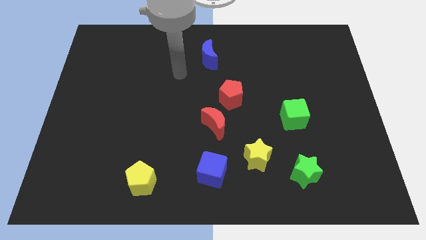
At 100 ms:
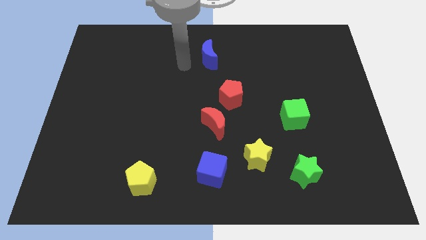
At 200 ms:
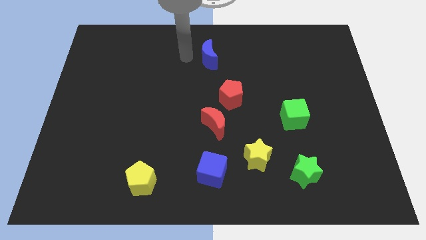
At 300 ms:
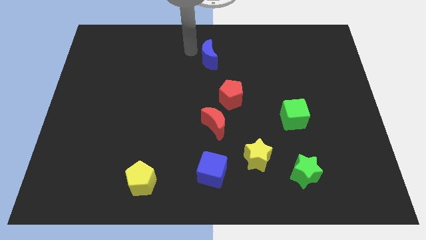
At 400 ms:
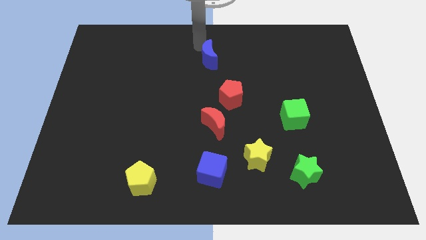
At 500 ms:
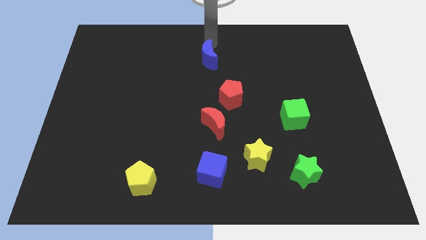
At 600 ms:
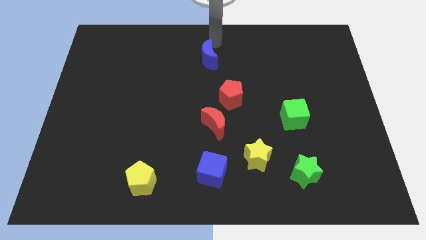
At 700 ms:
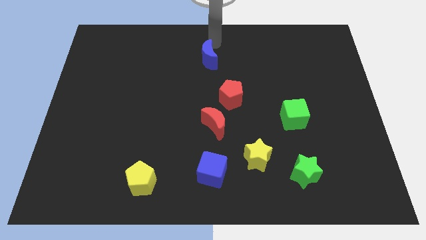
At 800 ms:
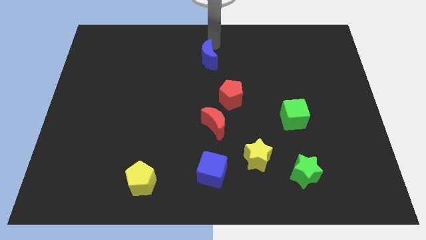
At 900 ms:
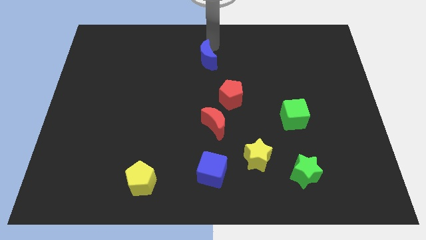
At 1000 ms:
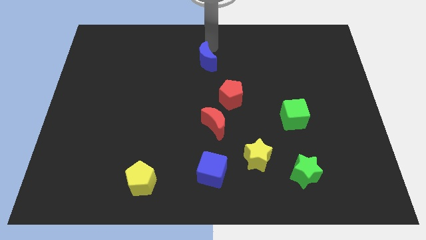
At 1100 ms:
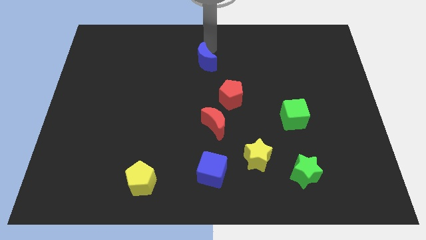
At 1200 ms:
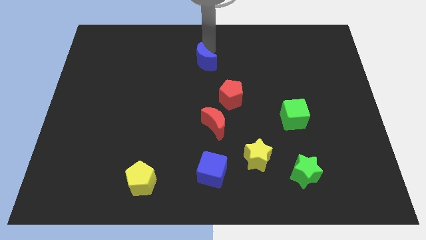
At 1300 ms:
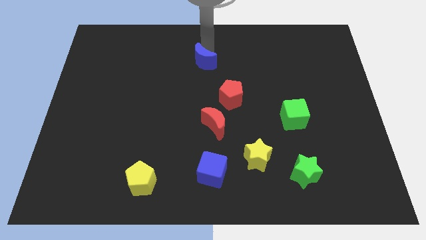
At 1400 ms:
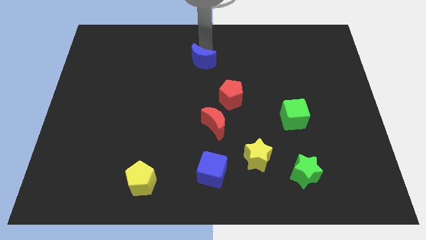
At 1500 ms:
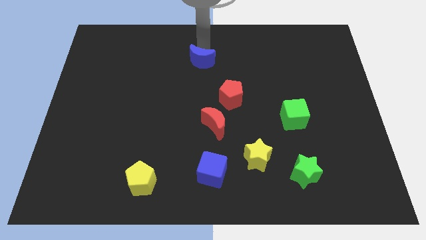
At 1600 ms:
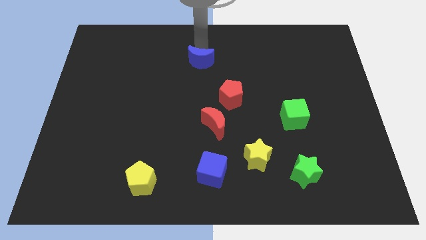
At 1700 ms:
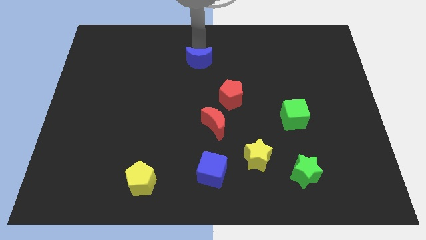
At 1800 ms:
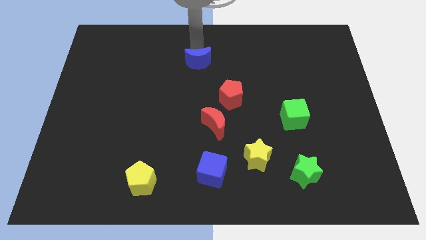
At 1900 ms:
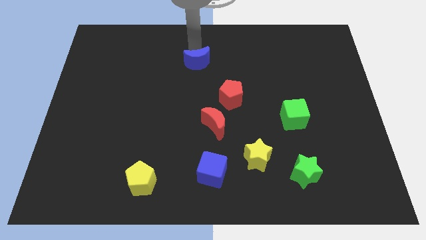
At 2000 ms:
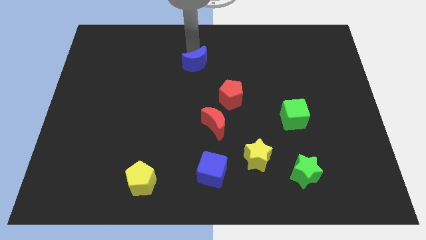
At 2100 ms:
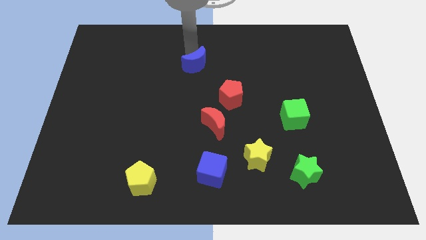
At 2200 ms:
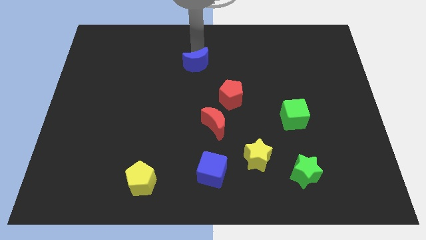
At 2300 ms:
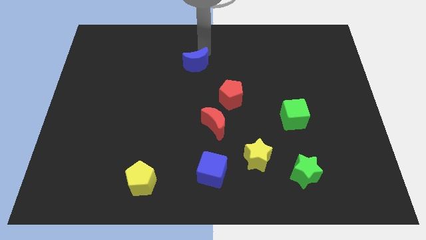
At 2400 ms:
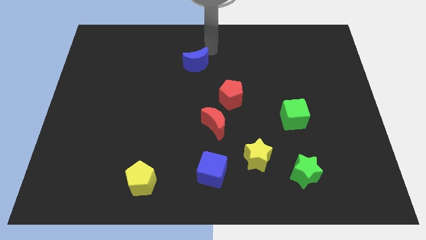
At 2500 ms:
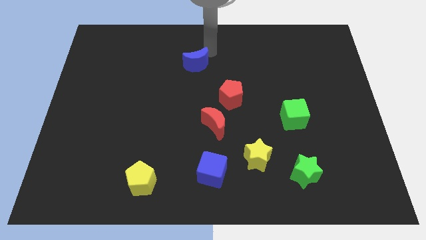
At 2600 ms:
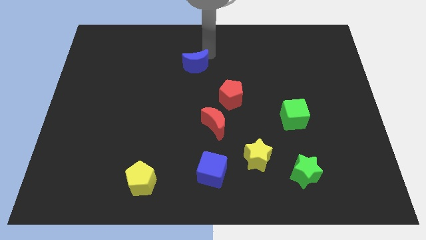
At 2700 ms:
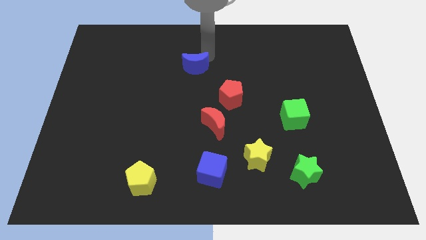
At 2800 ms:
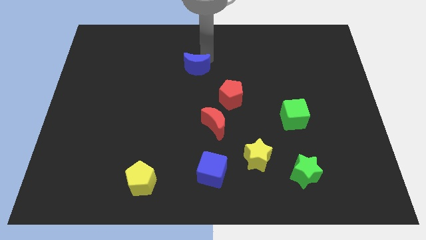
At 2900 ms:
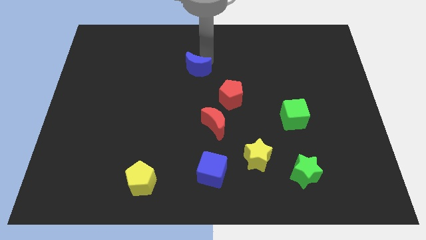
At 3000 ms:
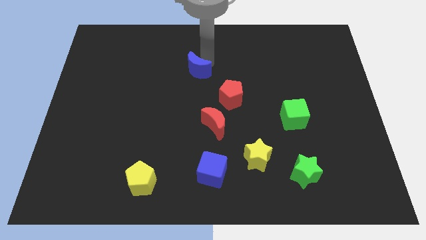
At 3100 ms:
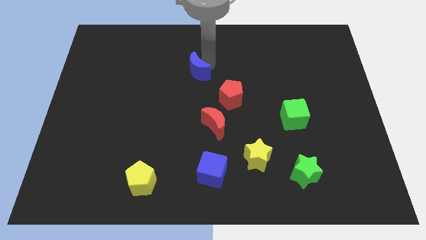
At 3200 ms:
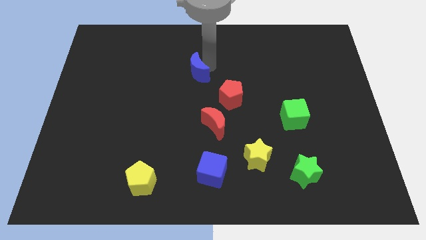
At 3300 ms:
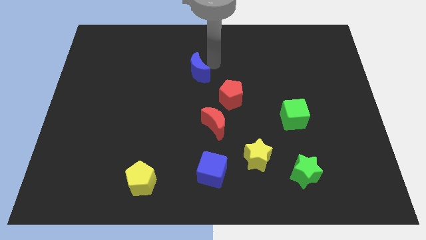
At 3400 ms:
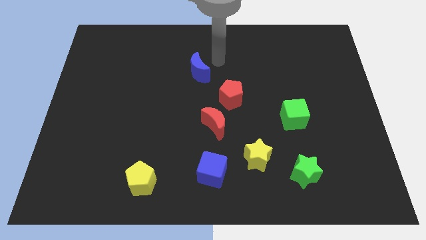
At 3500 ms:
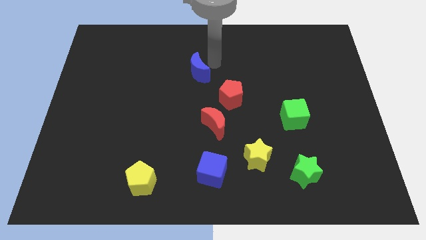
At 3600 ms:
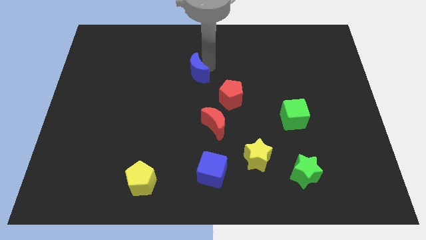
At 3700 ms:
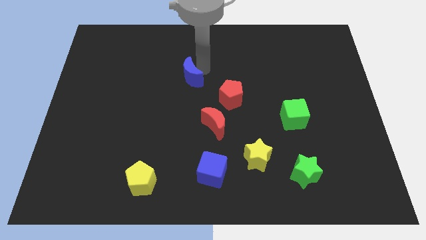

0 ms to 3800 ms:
move the blue moon downwards and left diagonally somewhat

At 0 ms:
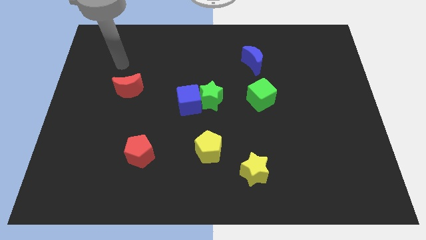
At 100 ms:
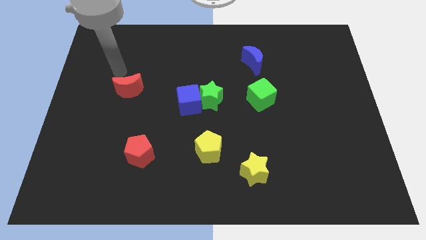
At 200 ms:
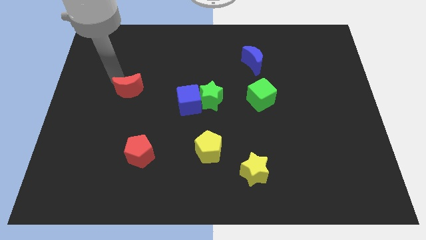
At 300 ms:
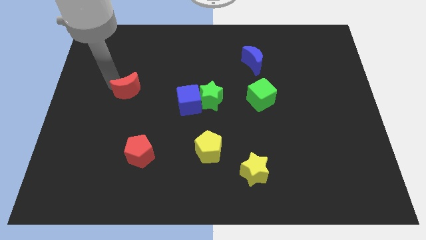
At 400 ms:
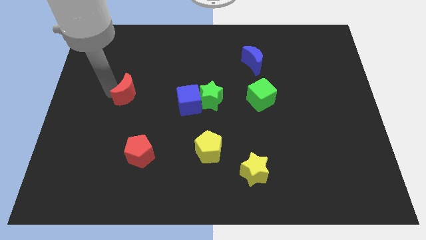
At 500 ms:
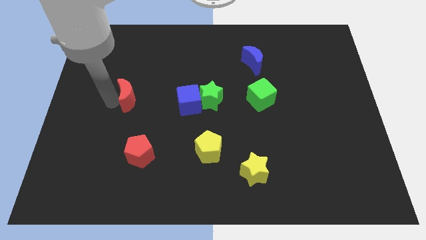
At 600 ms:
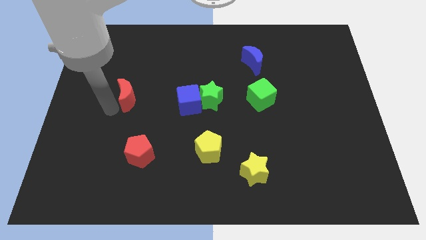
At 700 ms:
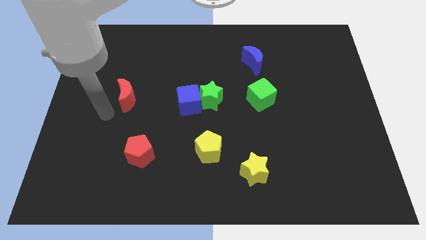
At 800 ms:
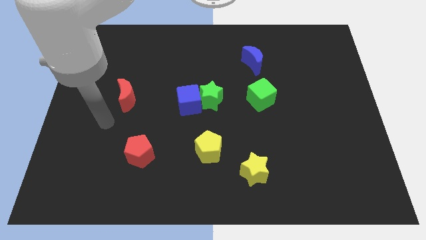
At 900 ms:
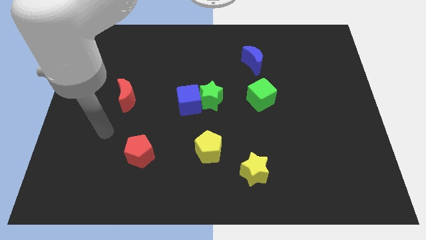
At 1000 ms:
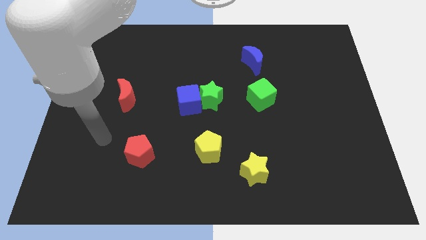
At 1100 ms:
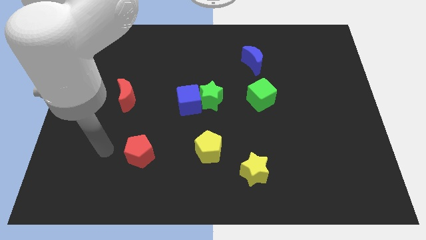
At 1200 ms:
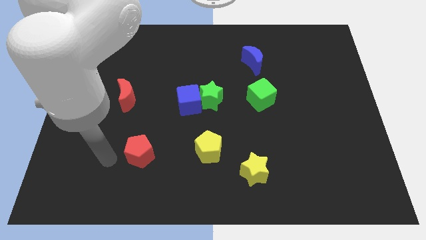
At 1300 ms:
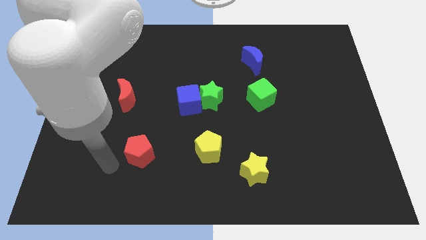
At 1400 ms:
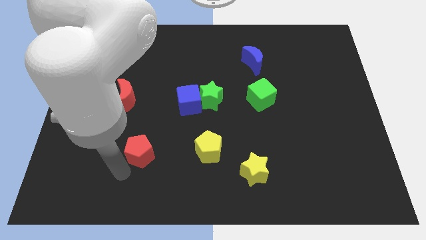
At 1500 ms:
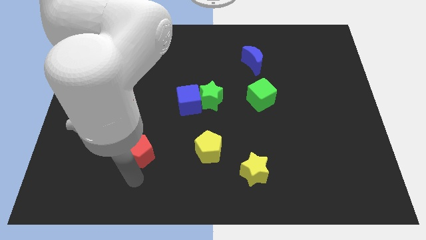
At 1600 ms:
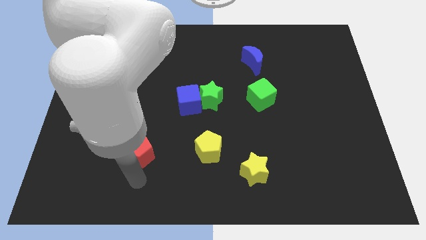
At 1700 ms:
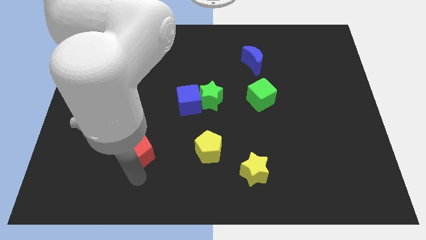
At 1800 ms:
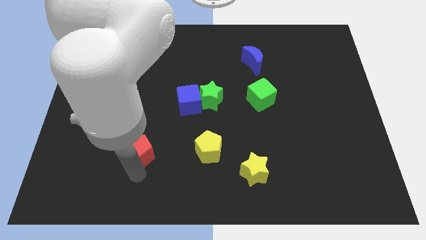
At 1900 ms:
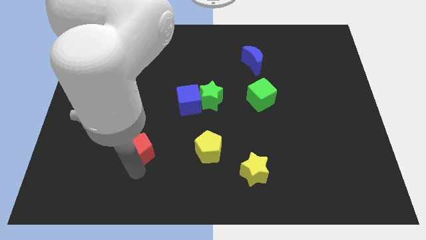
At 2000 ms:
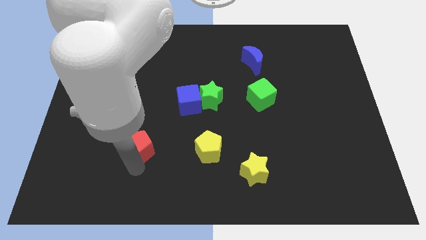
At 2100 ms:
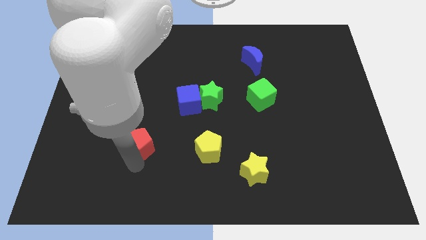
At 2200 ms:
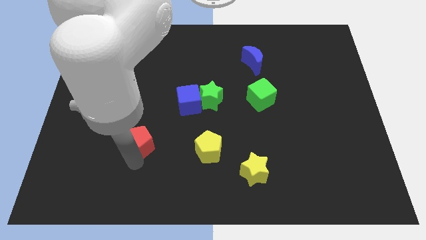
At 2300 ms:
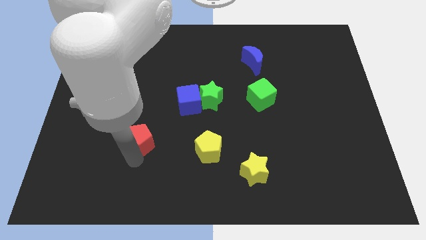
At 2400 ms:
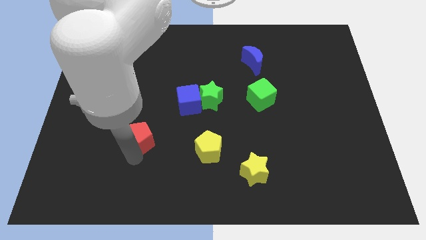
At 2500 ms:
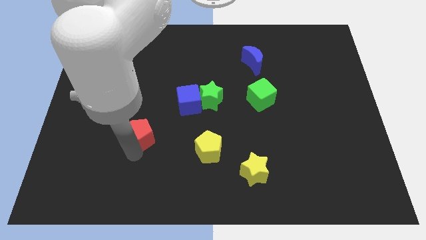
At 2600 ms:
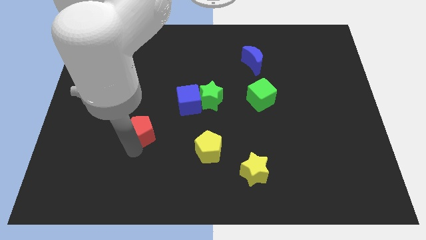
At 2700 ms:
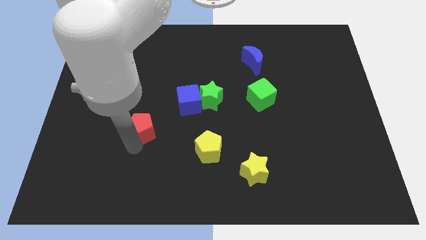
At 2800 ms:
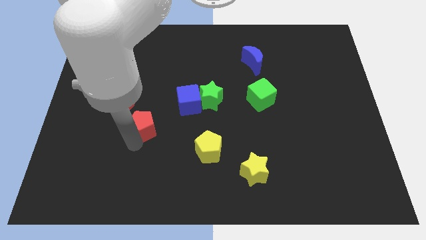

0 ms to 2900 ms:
slide the red pentagon somewhat up

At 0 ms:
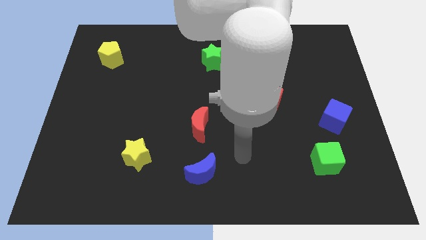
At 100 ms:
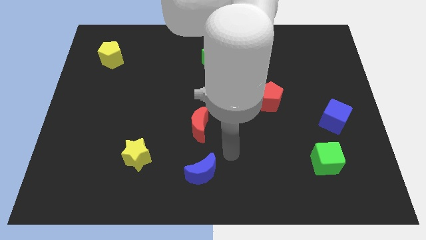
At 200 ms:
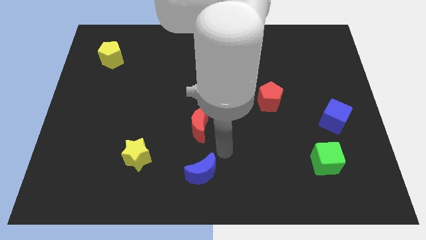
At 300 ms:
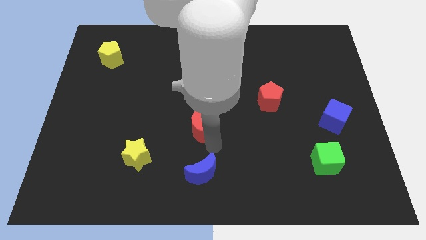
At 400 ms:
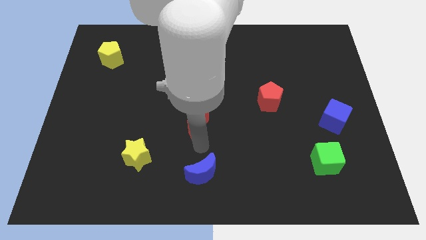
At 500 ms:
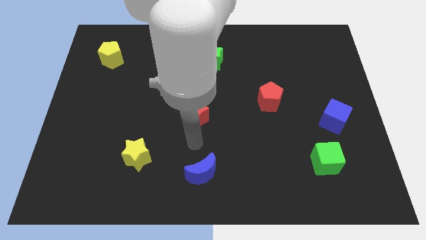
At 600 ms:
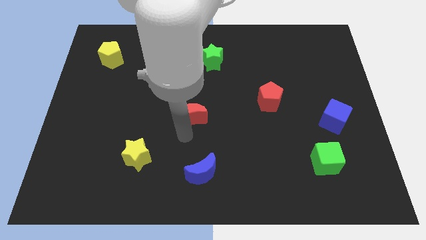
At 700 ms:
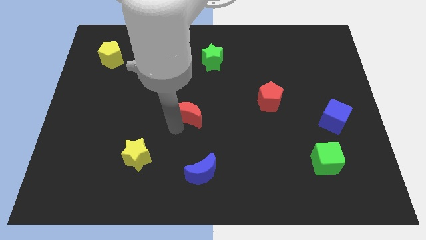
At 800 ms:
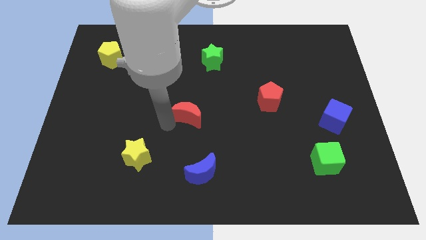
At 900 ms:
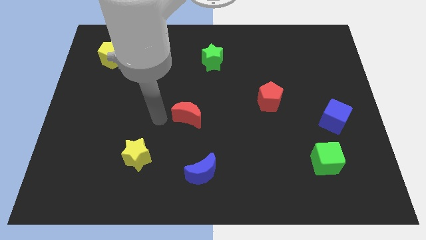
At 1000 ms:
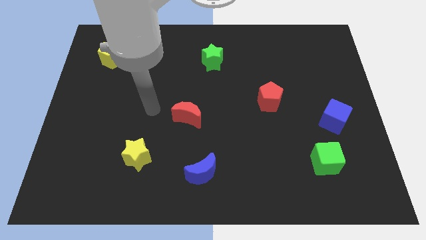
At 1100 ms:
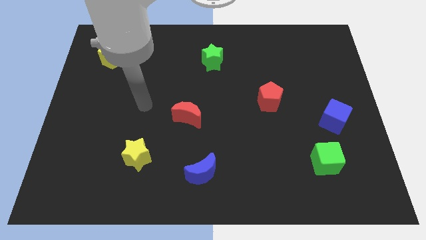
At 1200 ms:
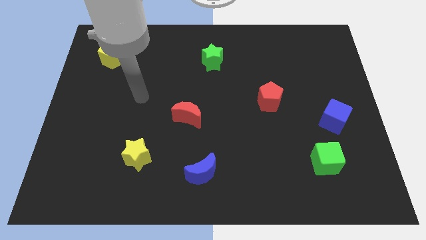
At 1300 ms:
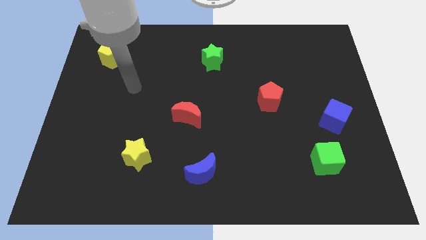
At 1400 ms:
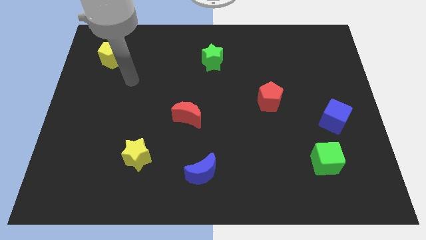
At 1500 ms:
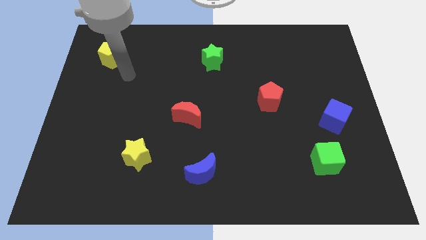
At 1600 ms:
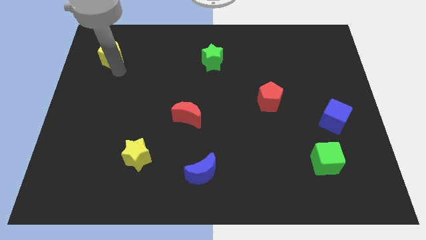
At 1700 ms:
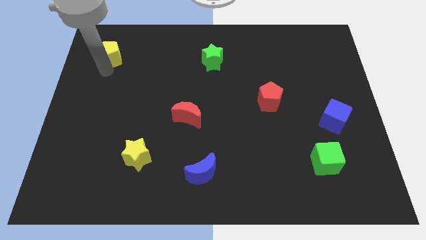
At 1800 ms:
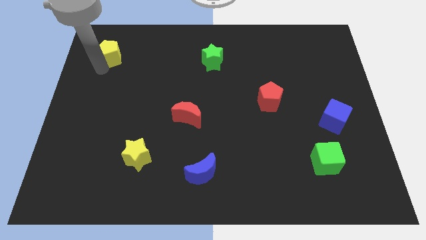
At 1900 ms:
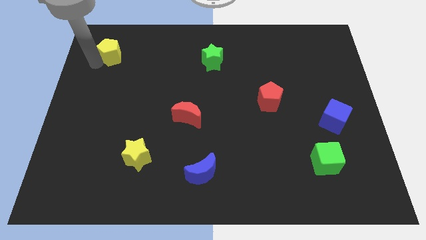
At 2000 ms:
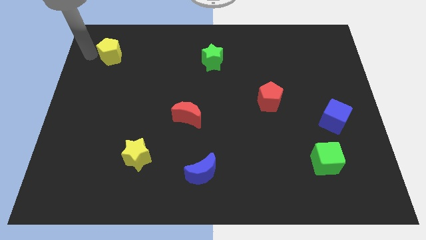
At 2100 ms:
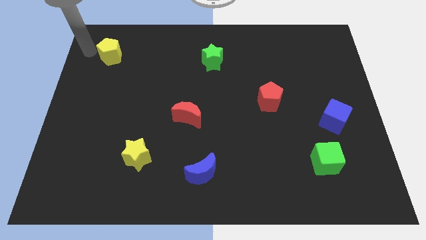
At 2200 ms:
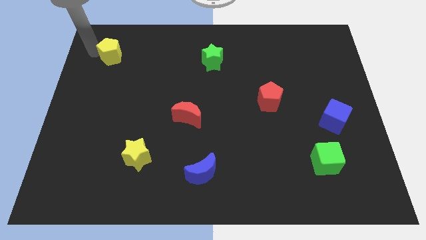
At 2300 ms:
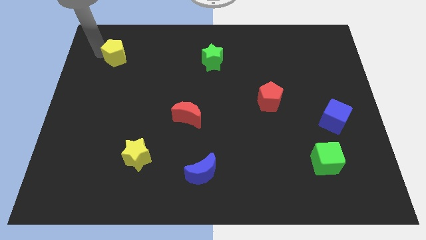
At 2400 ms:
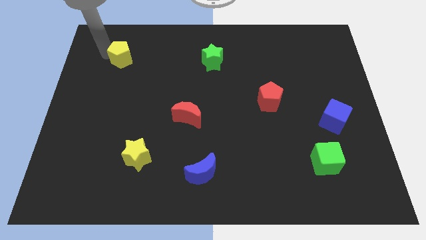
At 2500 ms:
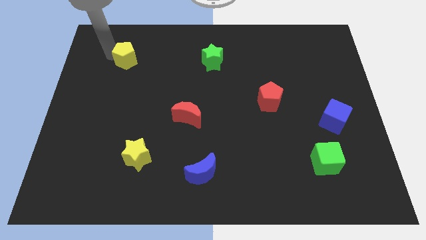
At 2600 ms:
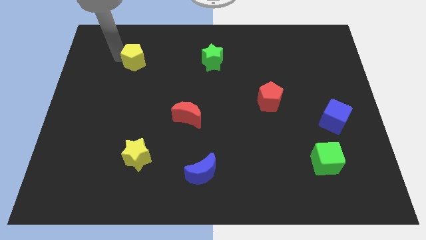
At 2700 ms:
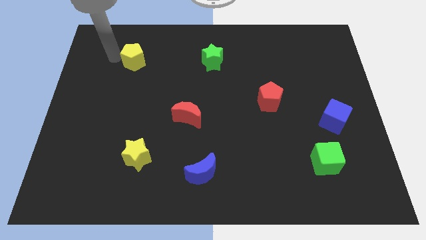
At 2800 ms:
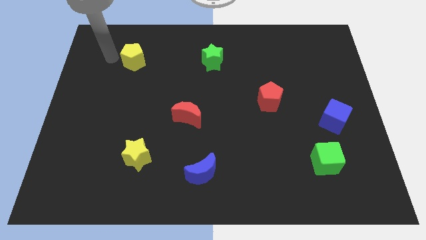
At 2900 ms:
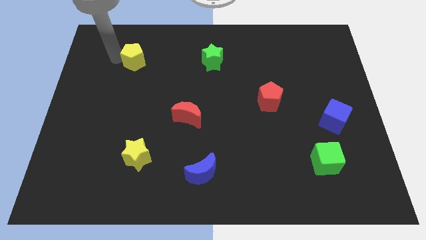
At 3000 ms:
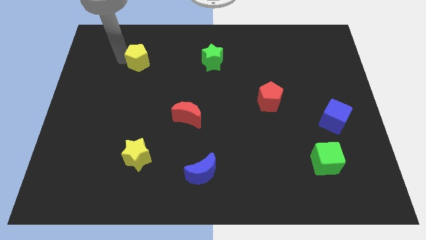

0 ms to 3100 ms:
move the yellow pentagon right slightly
